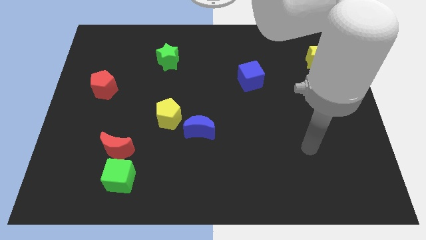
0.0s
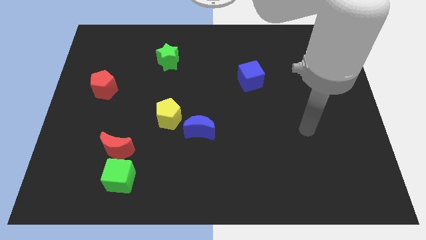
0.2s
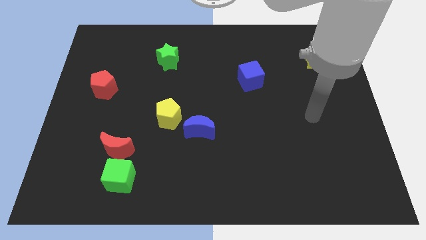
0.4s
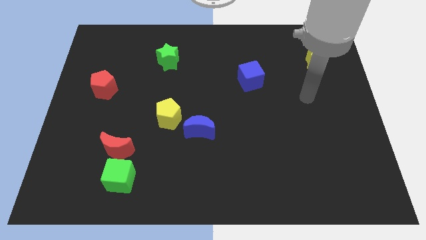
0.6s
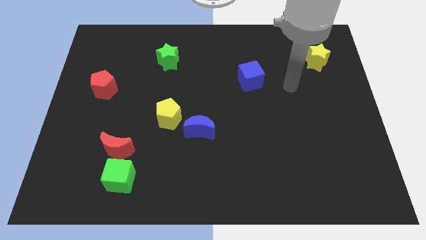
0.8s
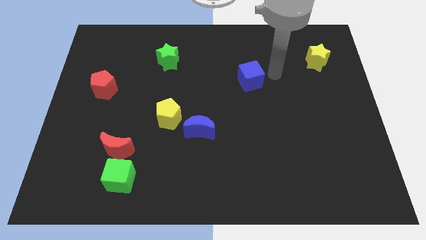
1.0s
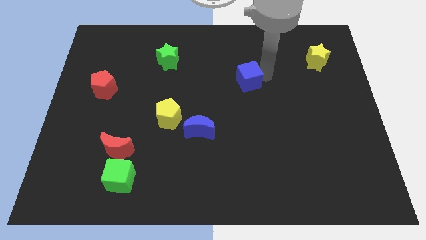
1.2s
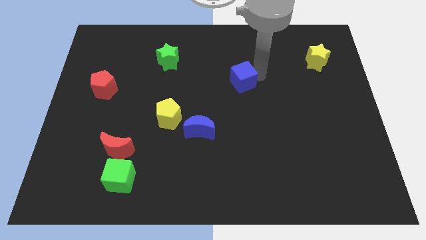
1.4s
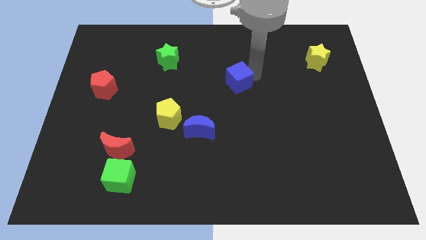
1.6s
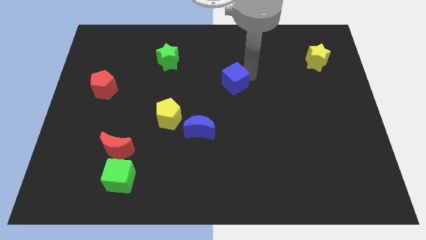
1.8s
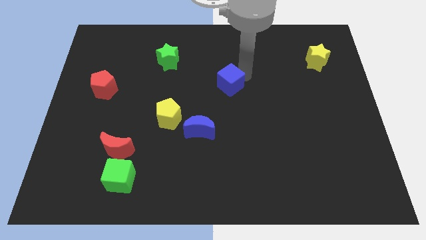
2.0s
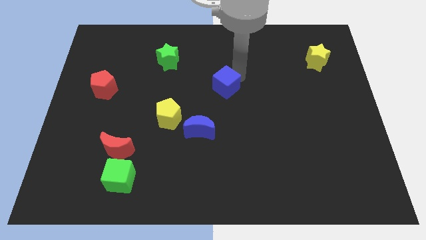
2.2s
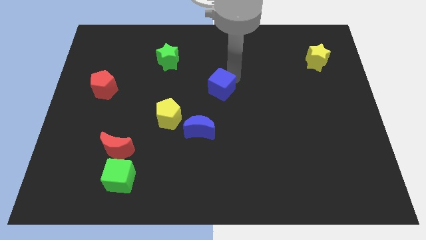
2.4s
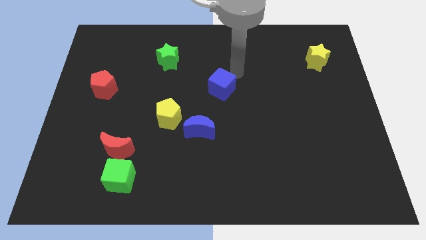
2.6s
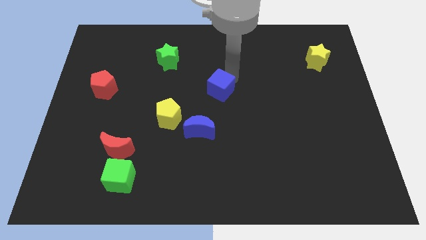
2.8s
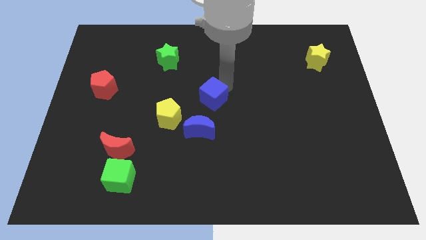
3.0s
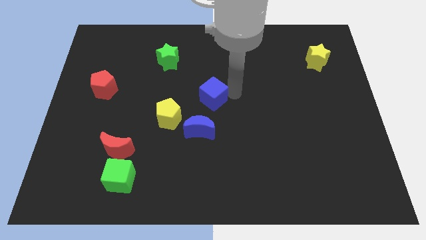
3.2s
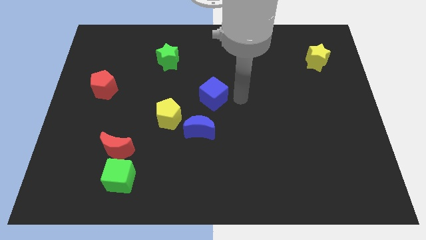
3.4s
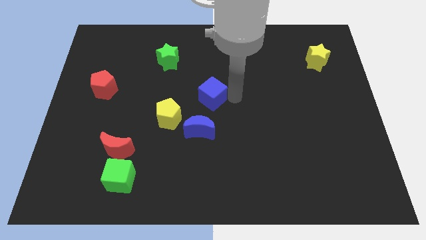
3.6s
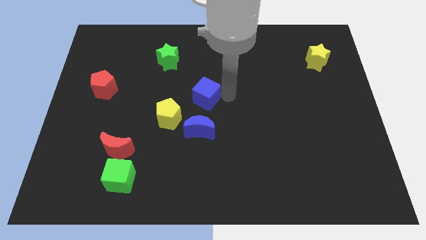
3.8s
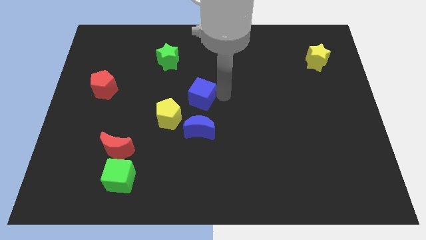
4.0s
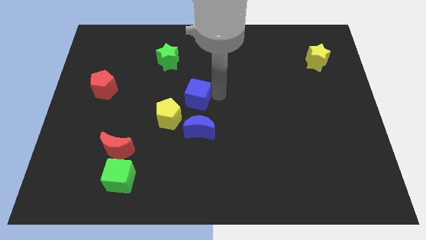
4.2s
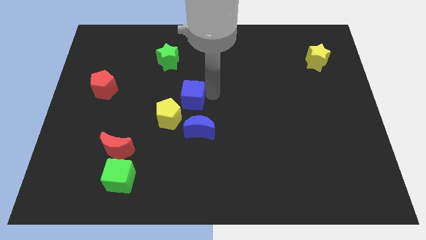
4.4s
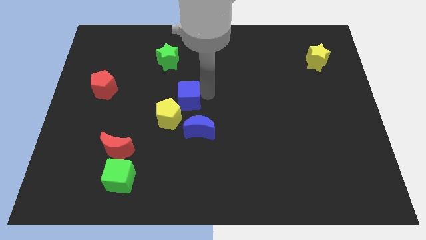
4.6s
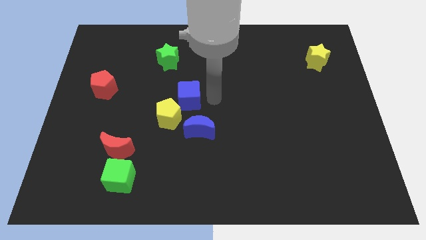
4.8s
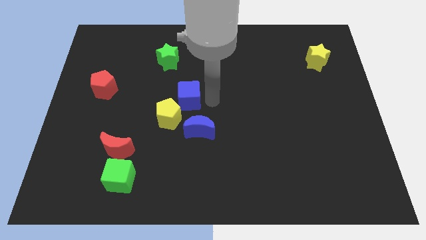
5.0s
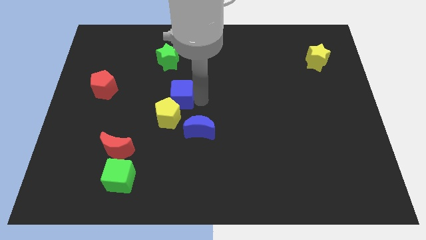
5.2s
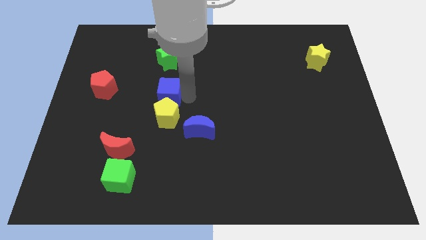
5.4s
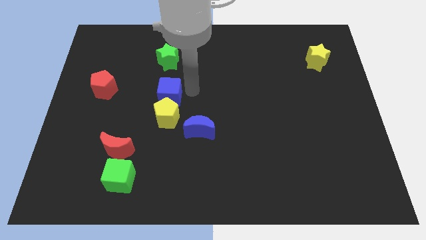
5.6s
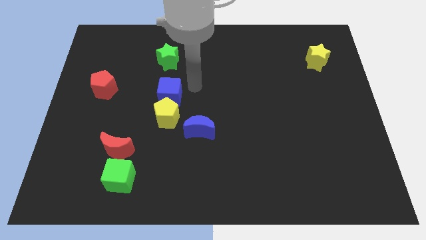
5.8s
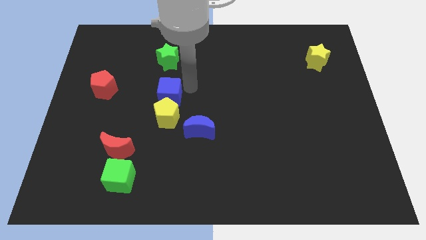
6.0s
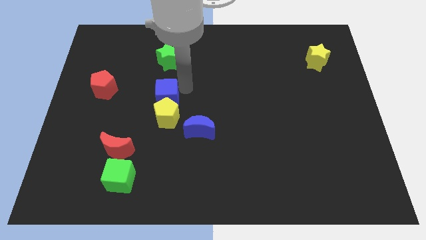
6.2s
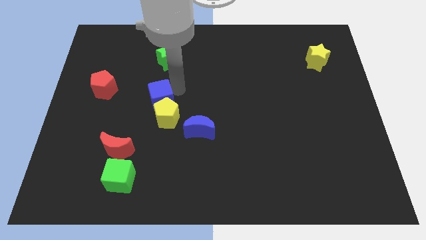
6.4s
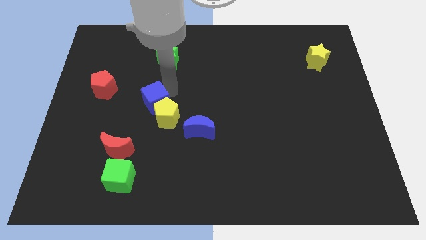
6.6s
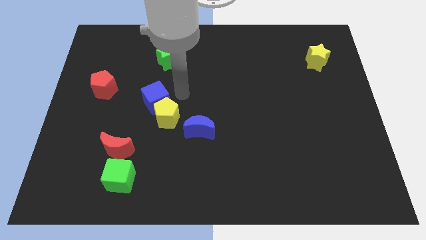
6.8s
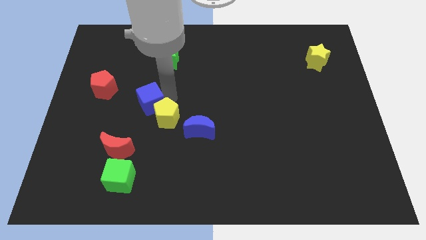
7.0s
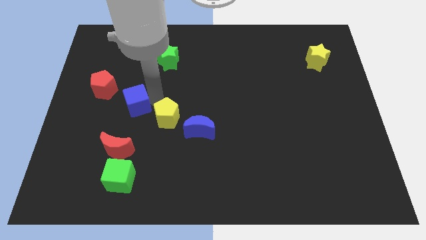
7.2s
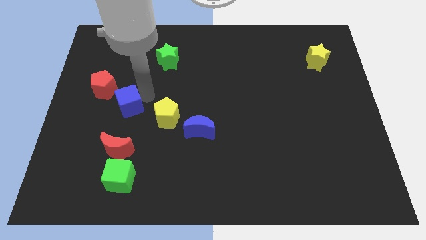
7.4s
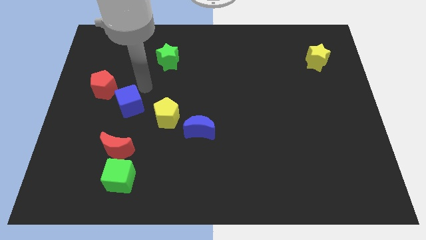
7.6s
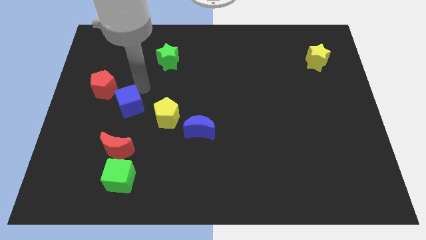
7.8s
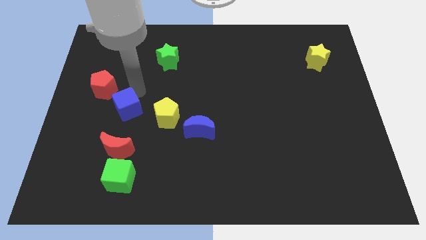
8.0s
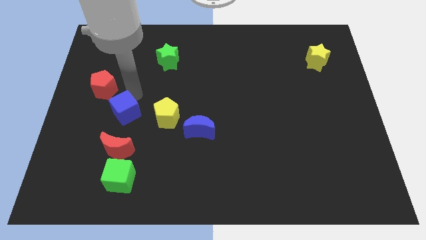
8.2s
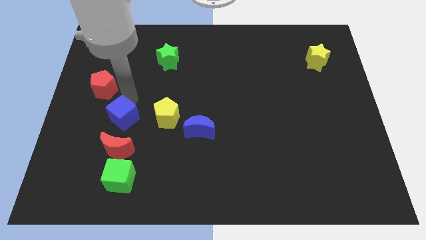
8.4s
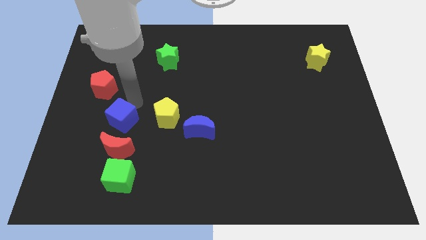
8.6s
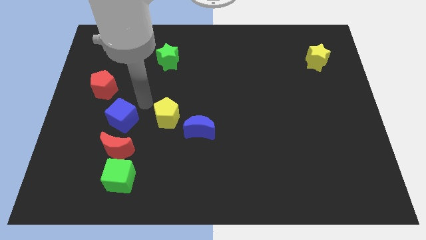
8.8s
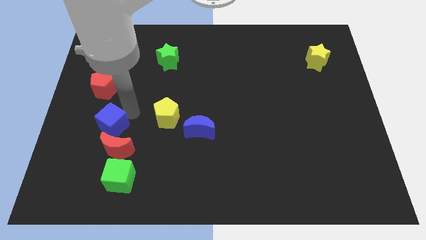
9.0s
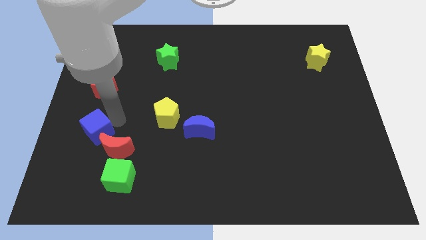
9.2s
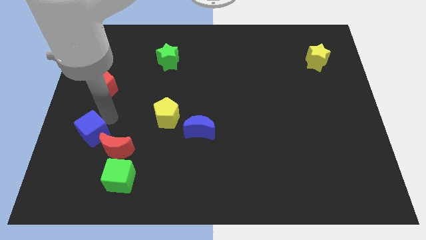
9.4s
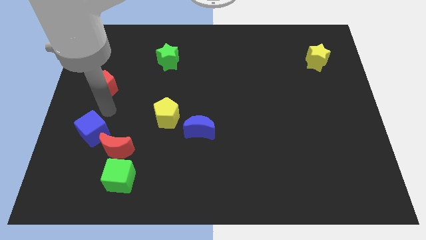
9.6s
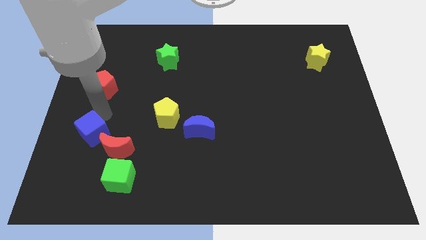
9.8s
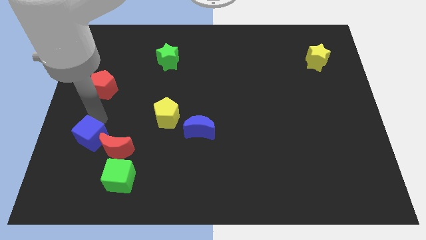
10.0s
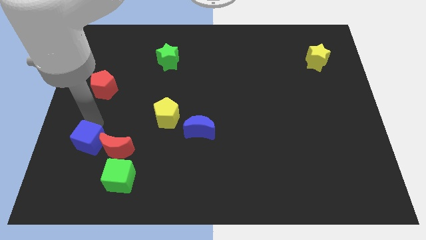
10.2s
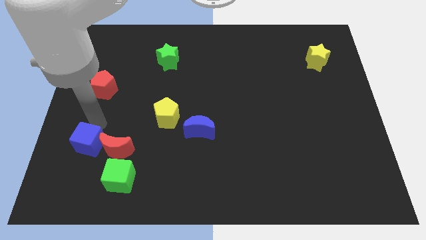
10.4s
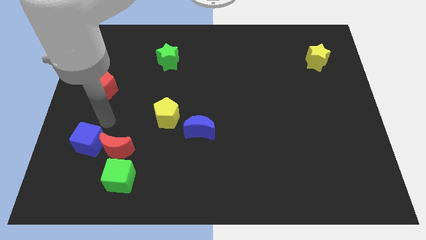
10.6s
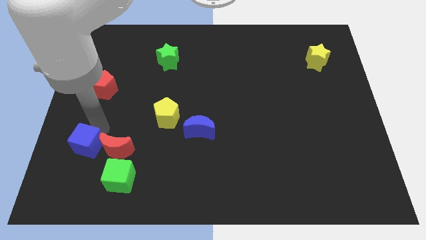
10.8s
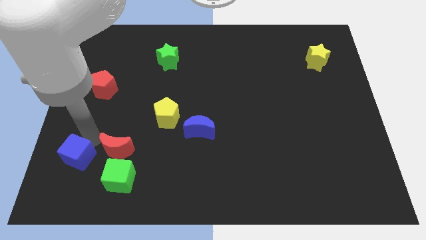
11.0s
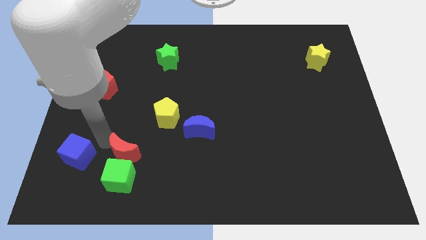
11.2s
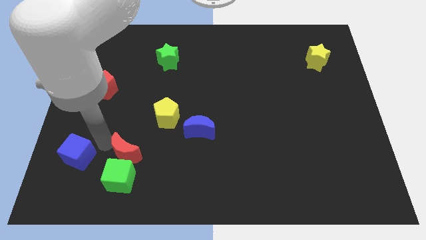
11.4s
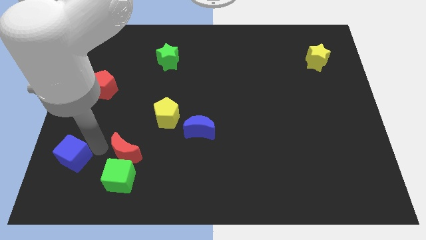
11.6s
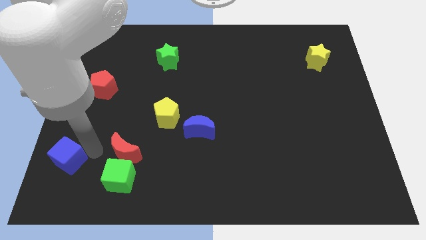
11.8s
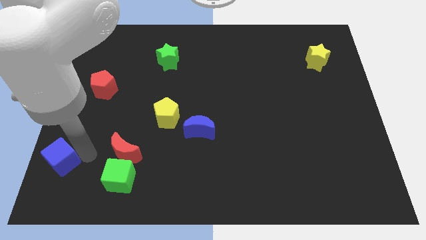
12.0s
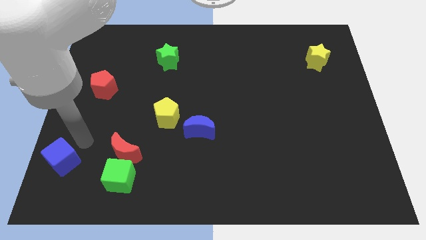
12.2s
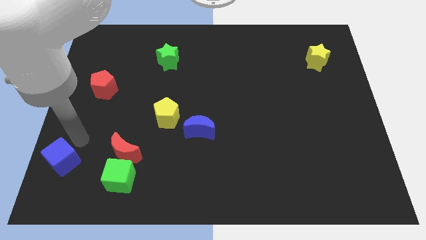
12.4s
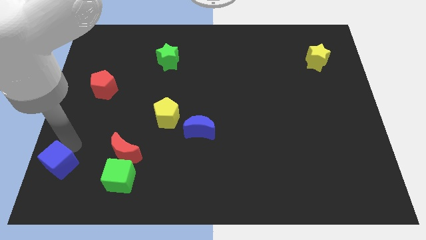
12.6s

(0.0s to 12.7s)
push the blue cube to the bottom left
